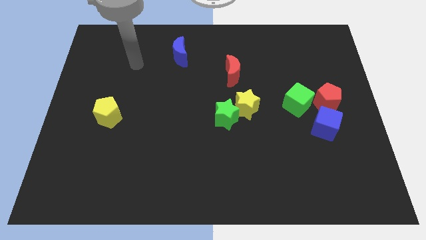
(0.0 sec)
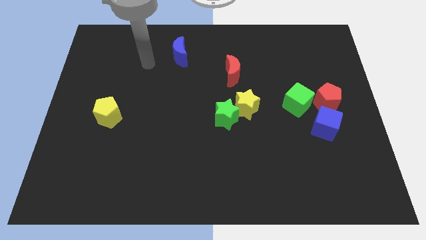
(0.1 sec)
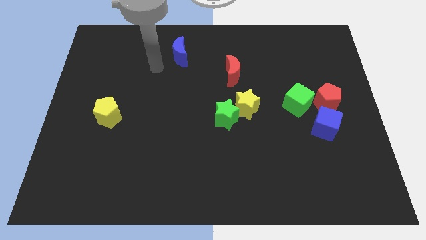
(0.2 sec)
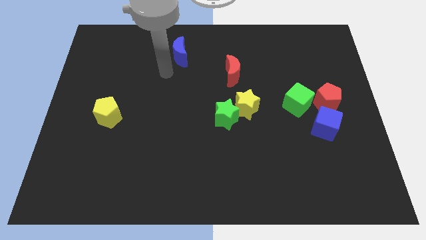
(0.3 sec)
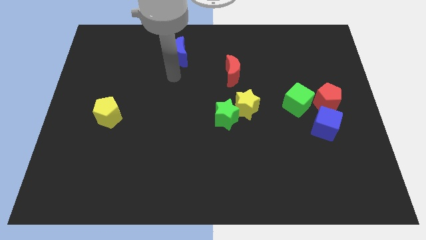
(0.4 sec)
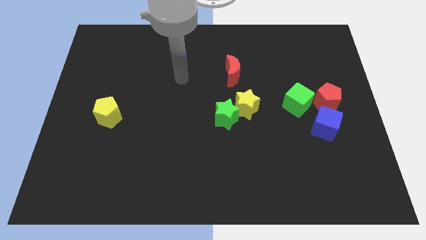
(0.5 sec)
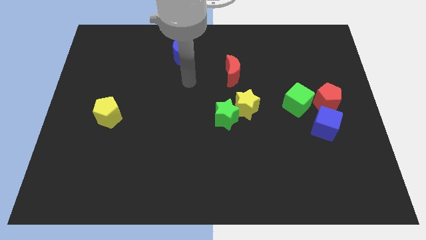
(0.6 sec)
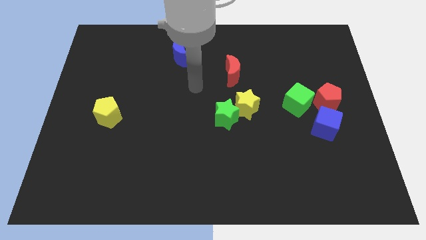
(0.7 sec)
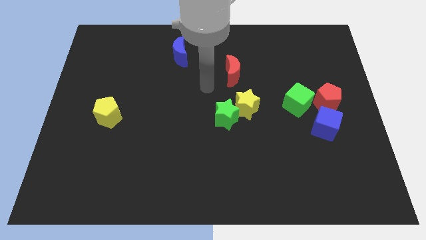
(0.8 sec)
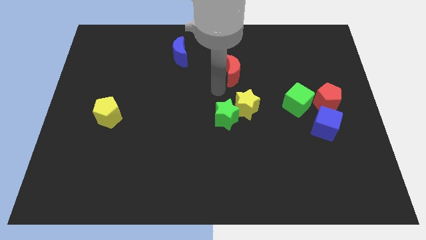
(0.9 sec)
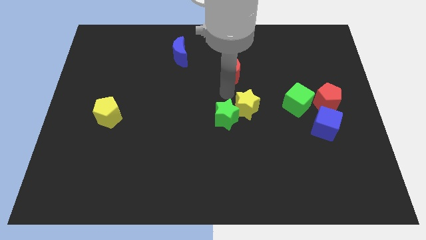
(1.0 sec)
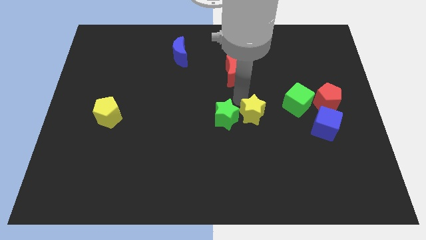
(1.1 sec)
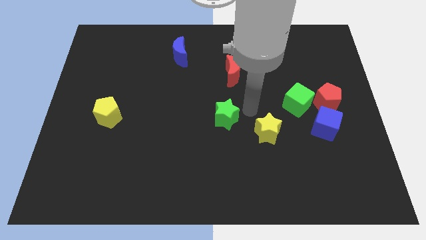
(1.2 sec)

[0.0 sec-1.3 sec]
pull the green star apart from the yellow star

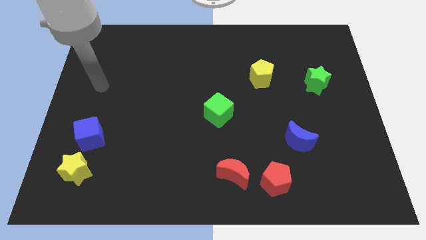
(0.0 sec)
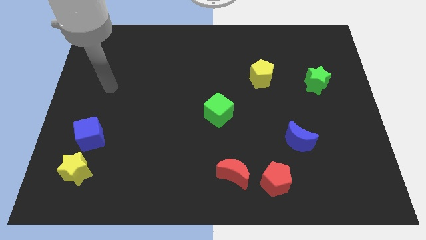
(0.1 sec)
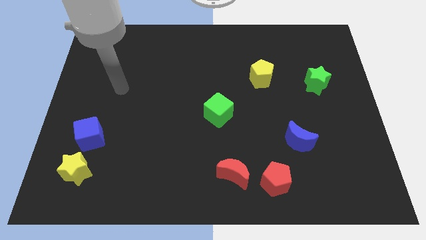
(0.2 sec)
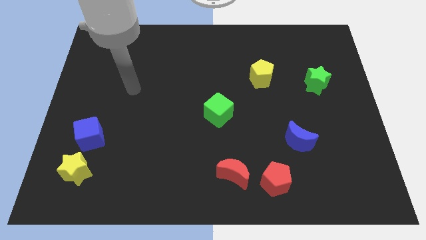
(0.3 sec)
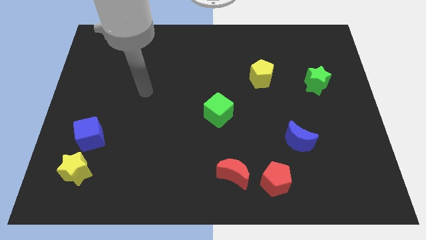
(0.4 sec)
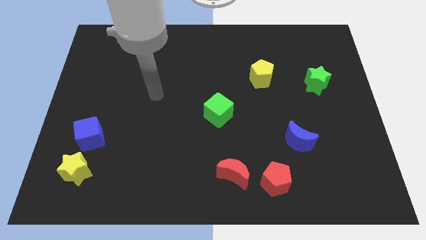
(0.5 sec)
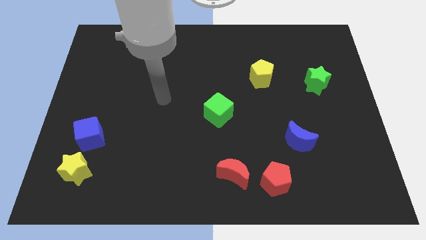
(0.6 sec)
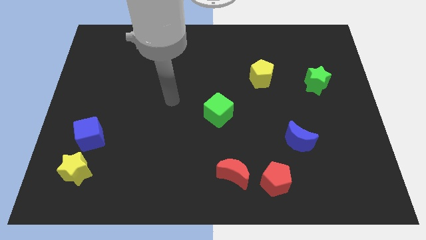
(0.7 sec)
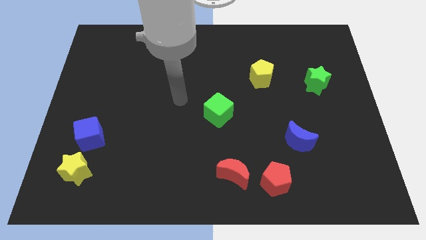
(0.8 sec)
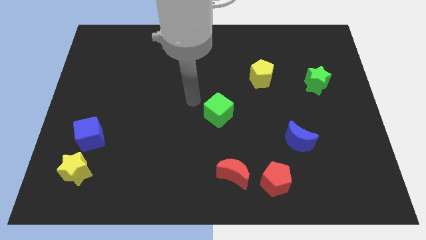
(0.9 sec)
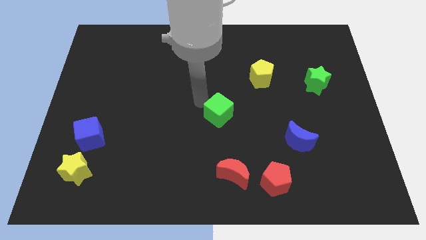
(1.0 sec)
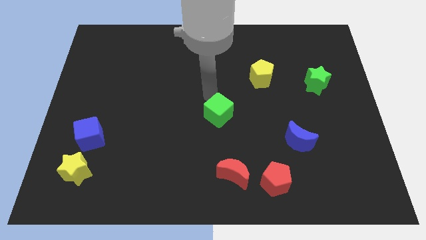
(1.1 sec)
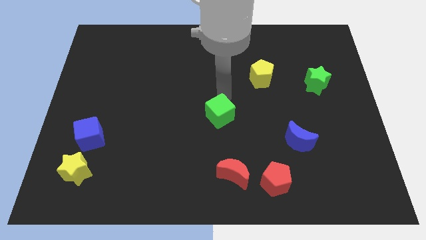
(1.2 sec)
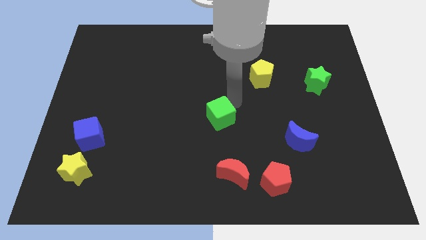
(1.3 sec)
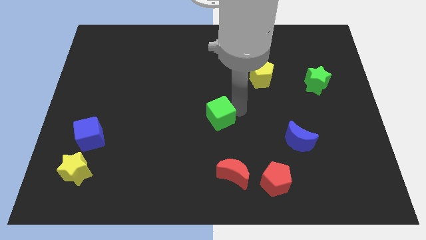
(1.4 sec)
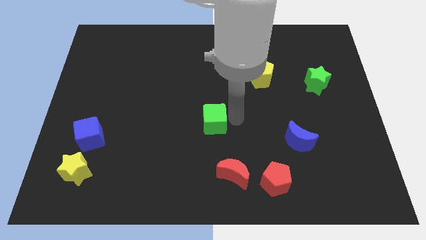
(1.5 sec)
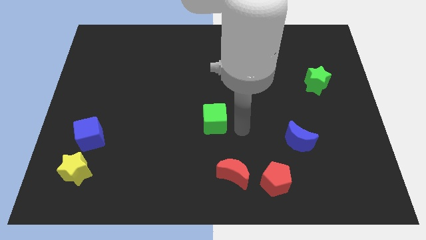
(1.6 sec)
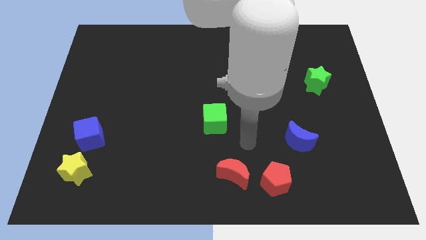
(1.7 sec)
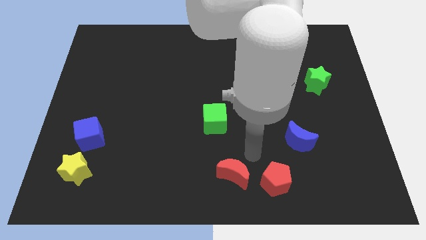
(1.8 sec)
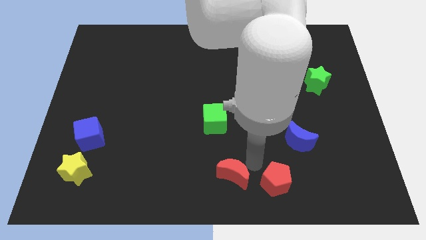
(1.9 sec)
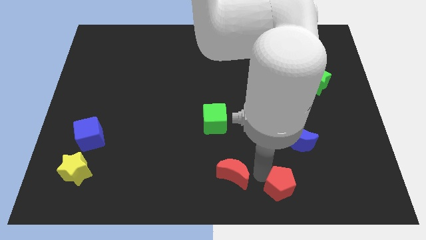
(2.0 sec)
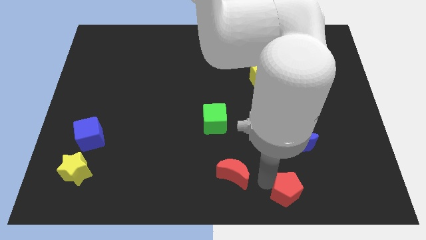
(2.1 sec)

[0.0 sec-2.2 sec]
move the red moon away from the red pentagon

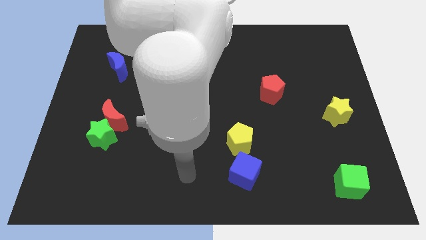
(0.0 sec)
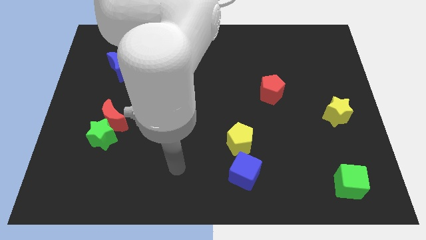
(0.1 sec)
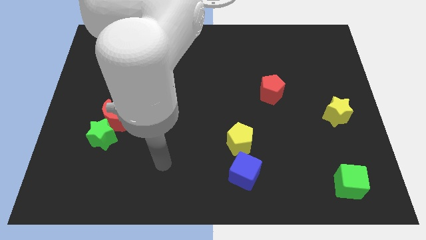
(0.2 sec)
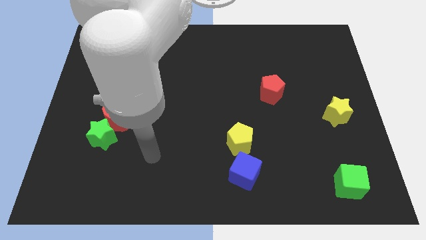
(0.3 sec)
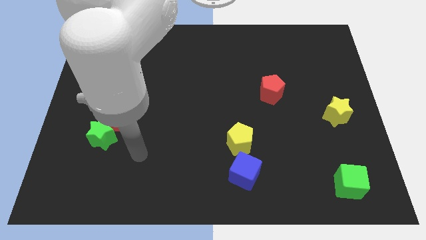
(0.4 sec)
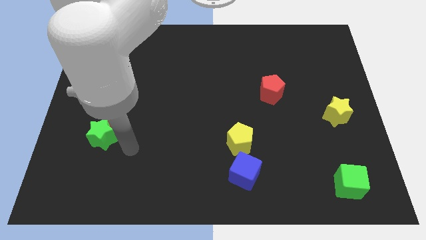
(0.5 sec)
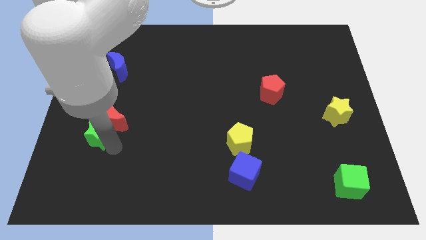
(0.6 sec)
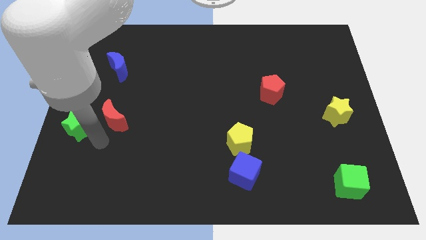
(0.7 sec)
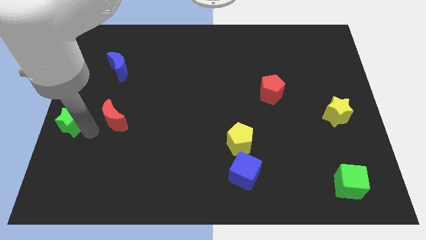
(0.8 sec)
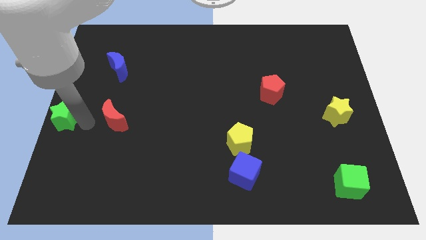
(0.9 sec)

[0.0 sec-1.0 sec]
move the red moon away from the green star

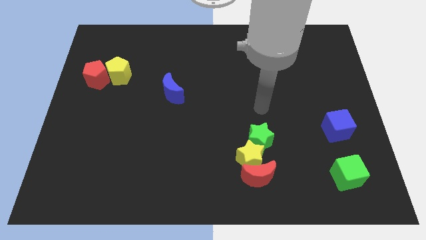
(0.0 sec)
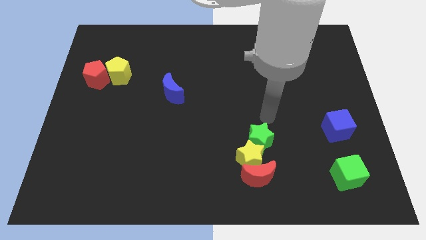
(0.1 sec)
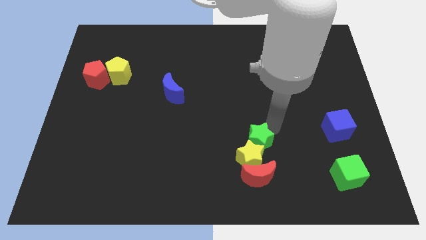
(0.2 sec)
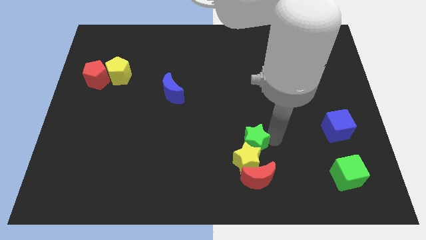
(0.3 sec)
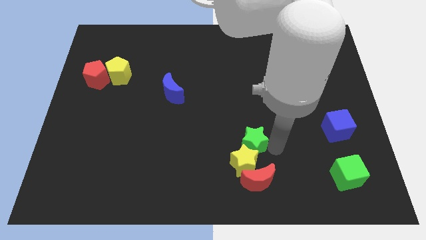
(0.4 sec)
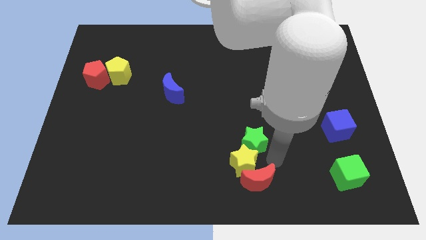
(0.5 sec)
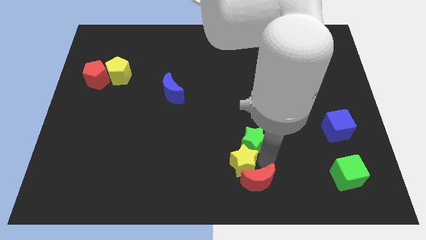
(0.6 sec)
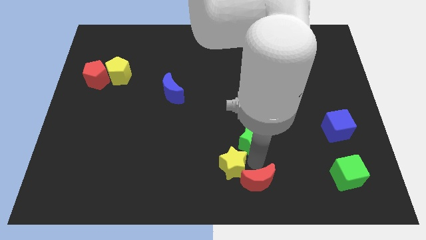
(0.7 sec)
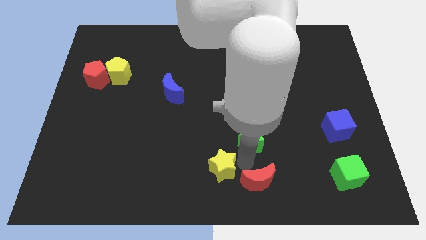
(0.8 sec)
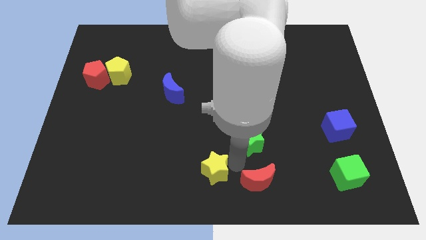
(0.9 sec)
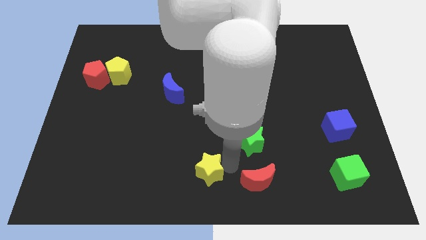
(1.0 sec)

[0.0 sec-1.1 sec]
separate the yellow star from the red moon and green star

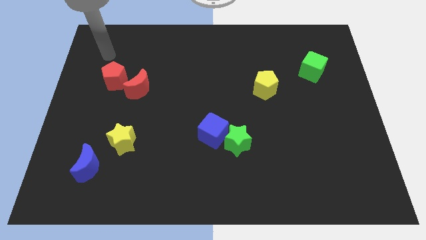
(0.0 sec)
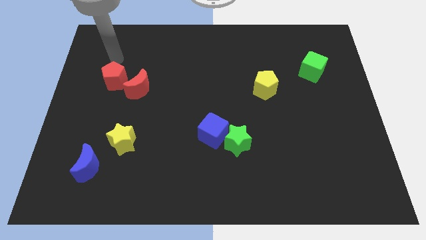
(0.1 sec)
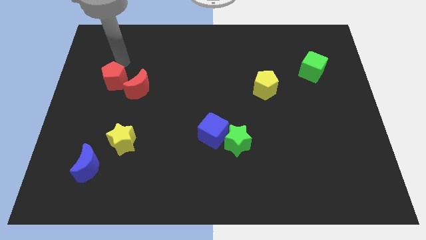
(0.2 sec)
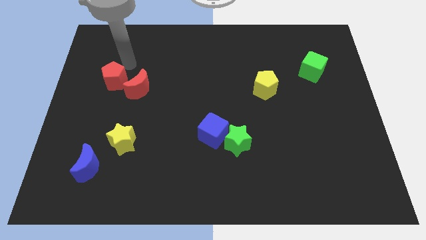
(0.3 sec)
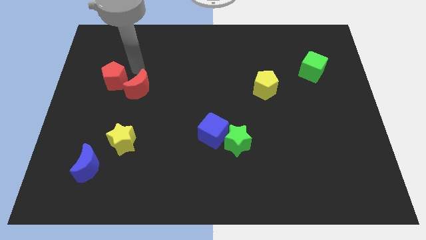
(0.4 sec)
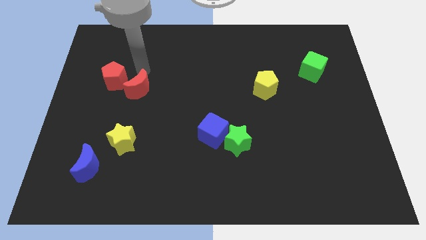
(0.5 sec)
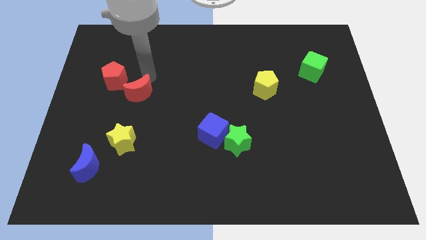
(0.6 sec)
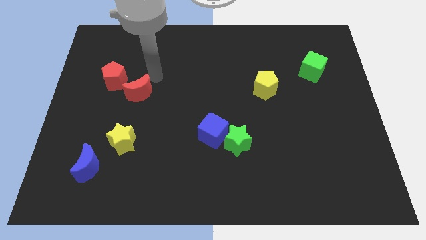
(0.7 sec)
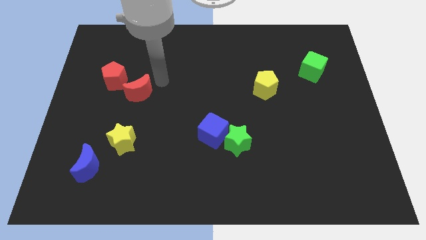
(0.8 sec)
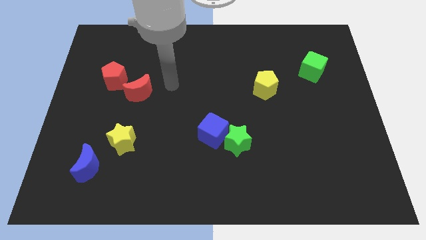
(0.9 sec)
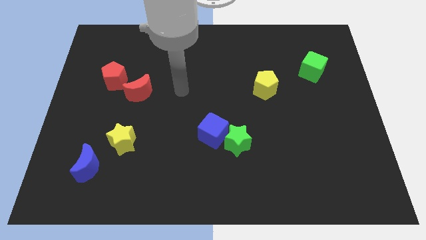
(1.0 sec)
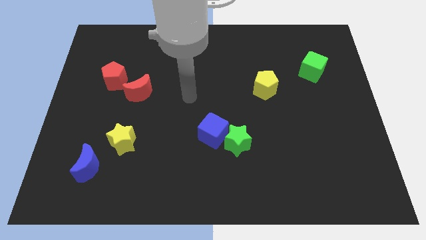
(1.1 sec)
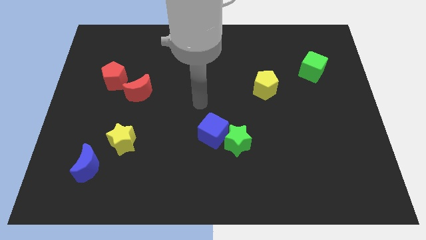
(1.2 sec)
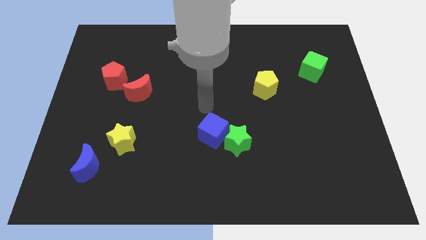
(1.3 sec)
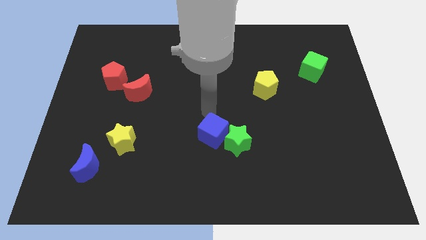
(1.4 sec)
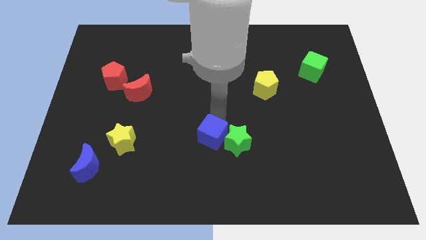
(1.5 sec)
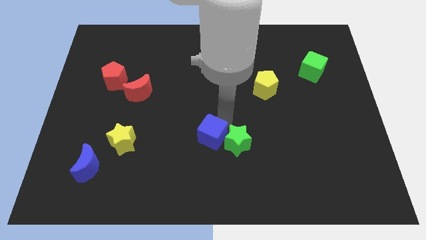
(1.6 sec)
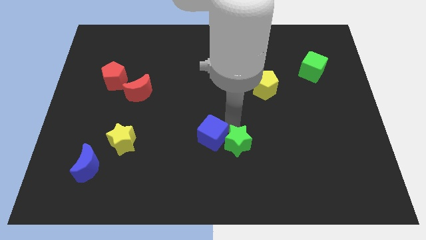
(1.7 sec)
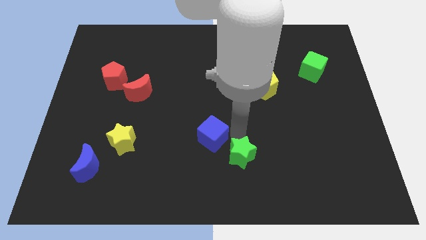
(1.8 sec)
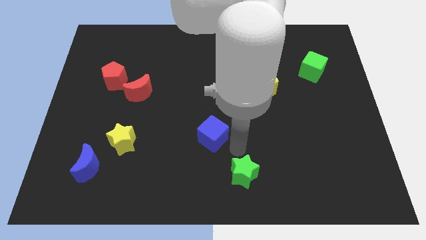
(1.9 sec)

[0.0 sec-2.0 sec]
separate the blue cube from the green star

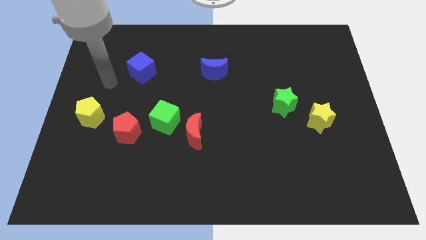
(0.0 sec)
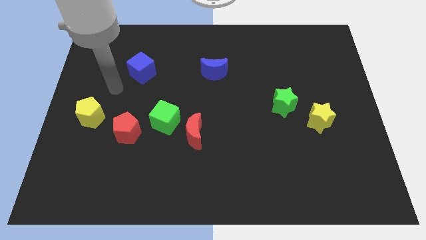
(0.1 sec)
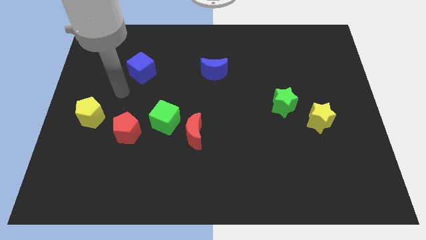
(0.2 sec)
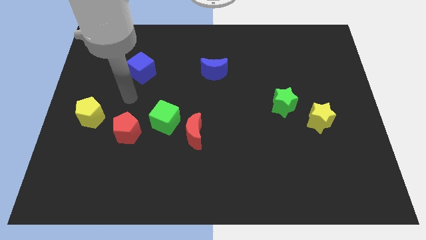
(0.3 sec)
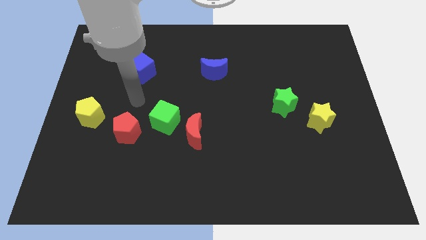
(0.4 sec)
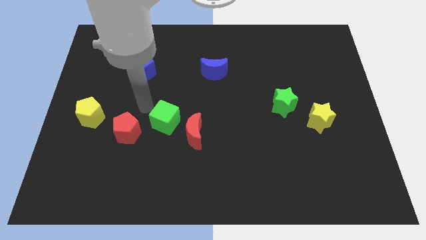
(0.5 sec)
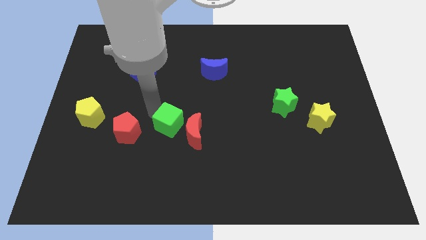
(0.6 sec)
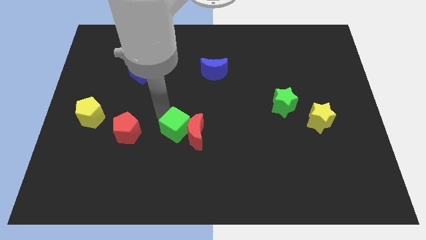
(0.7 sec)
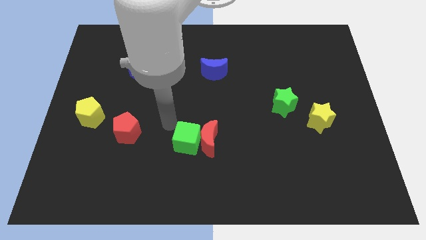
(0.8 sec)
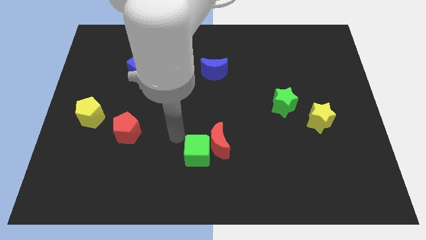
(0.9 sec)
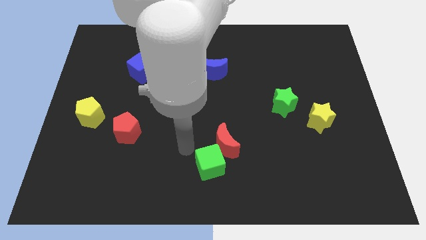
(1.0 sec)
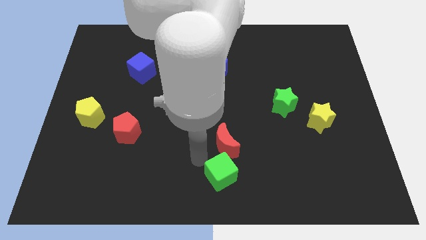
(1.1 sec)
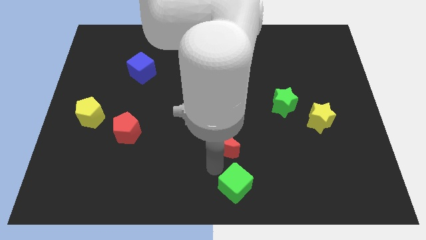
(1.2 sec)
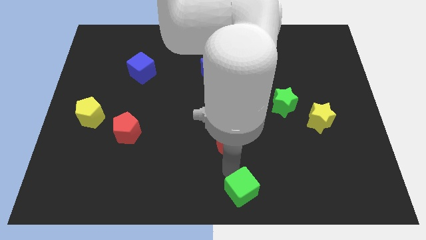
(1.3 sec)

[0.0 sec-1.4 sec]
pull the red moon apart from the green cube

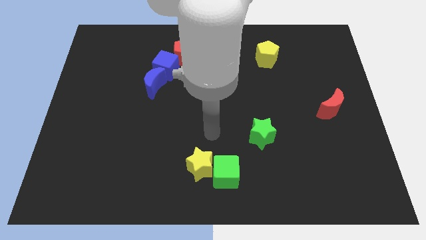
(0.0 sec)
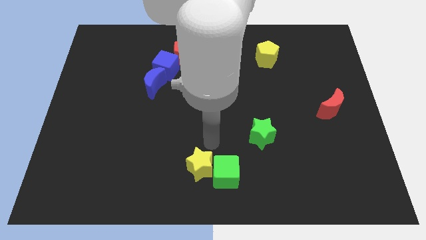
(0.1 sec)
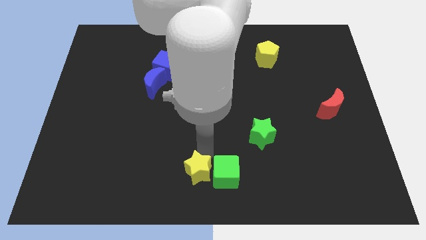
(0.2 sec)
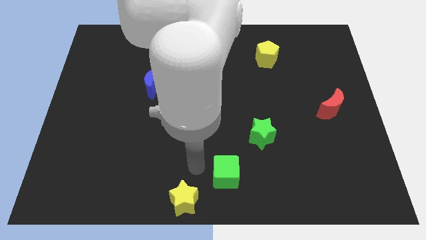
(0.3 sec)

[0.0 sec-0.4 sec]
separate the green cube from the yellow star
